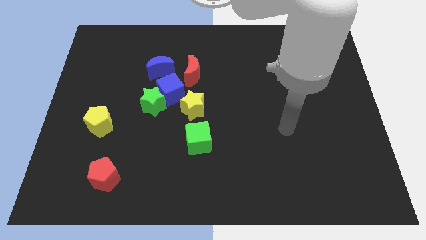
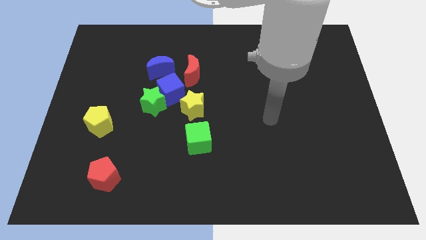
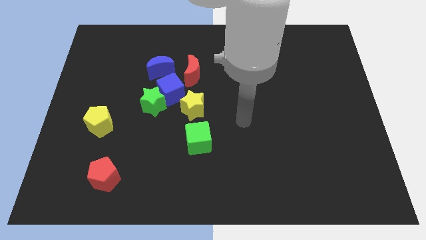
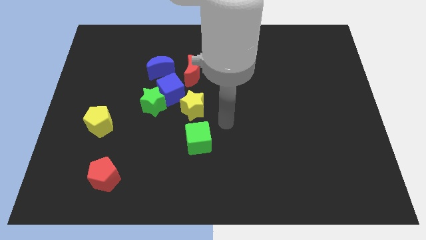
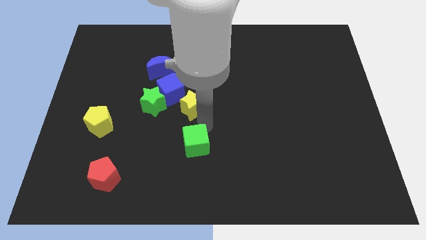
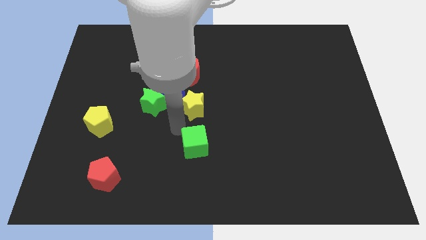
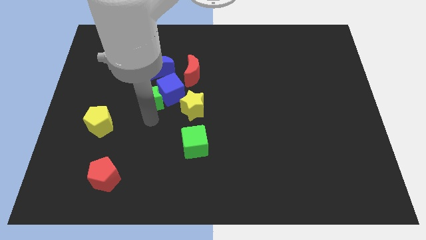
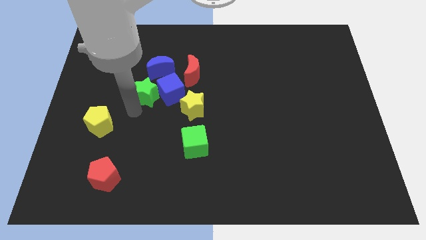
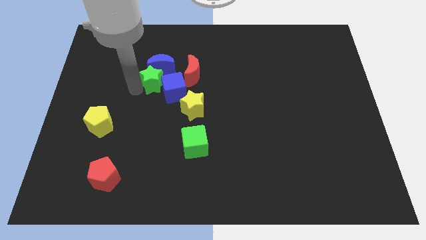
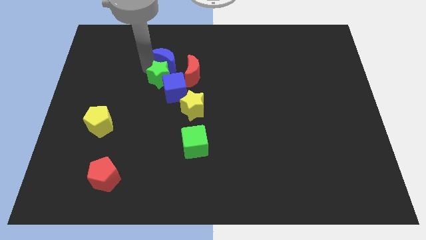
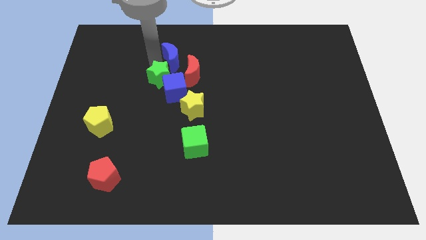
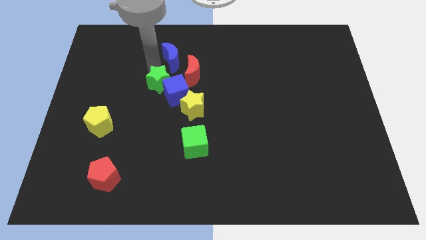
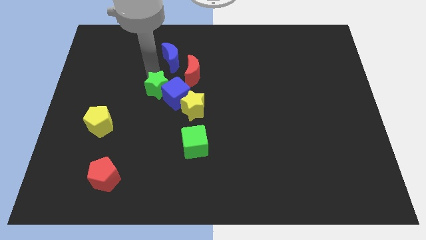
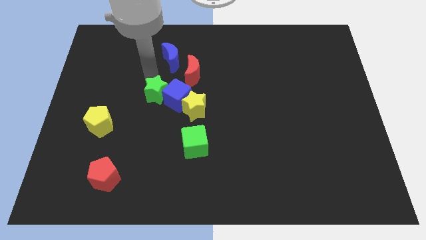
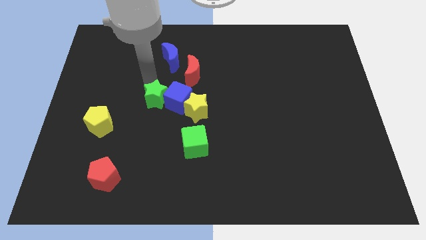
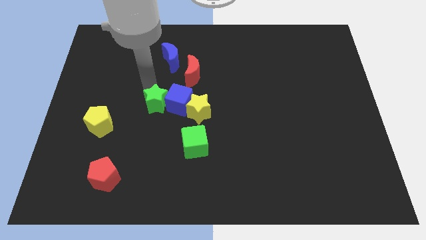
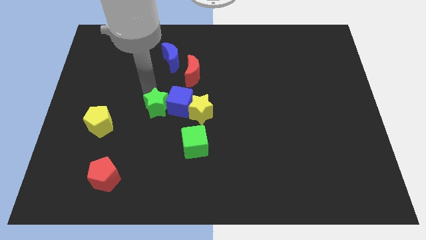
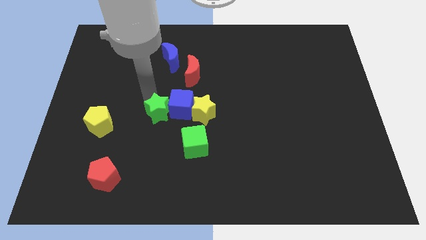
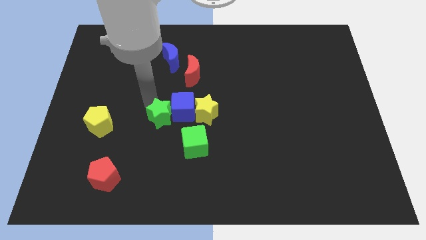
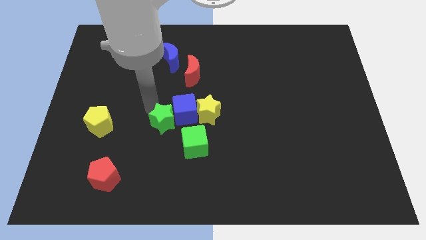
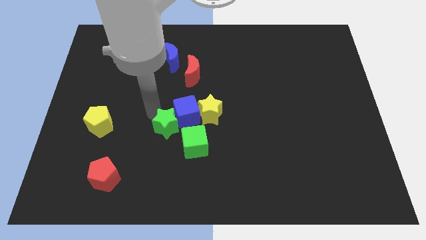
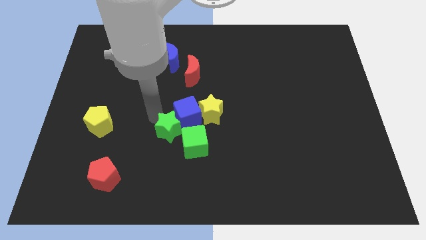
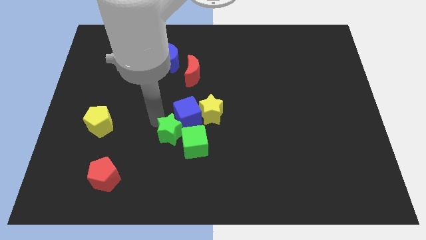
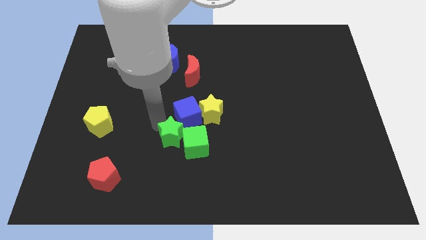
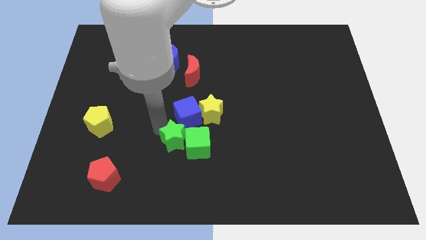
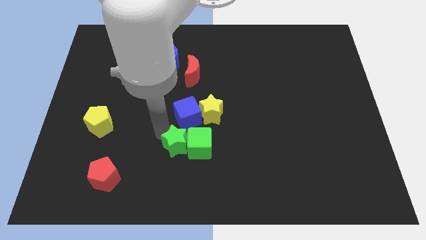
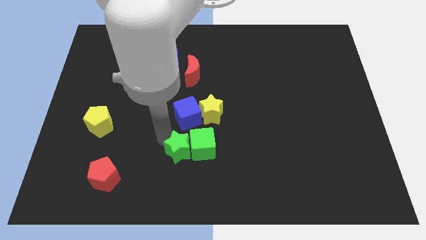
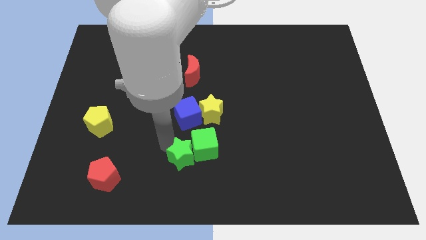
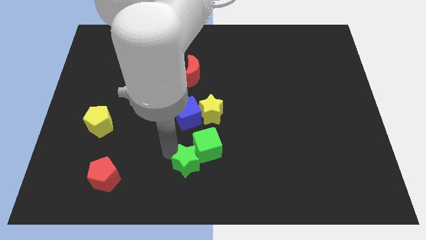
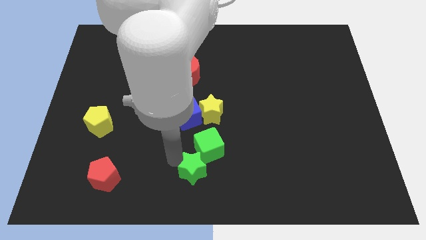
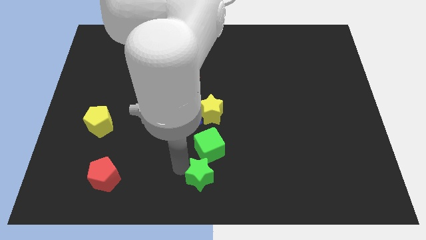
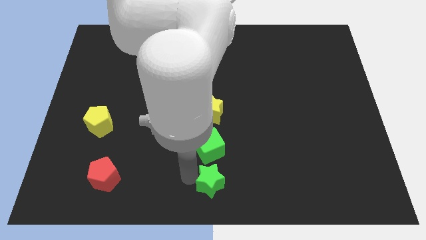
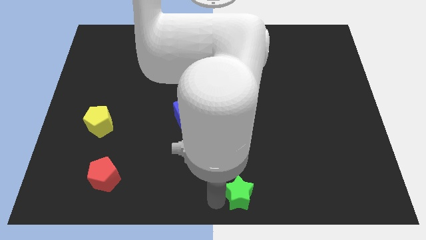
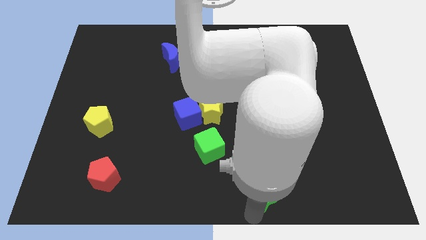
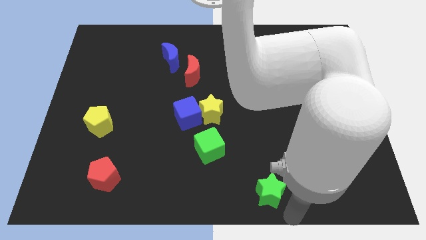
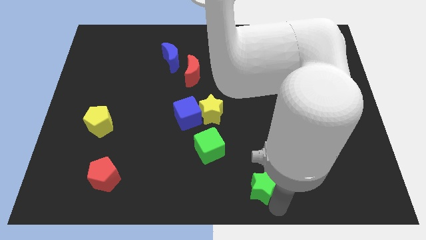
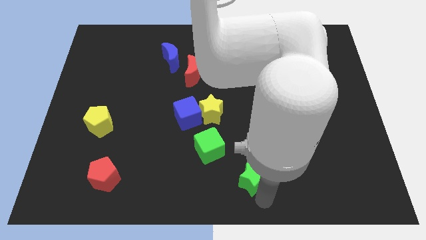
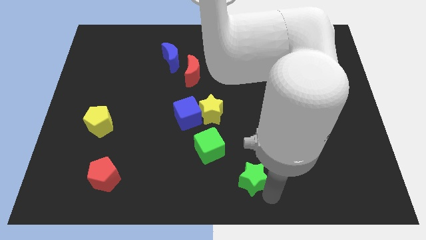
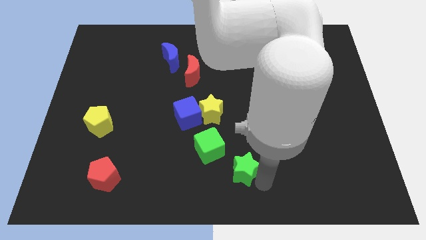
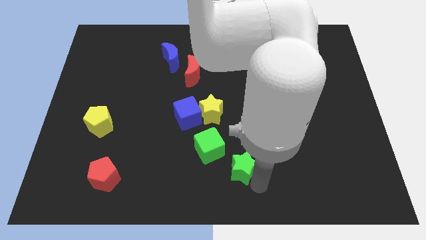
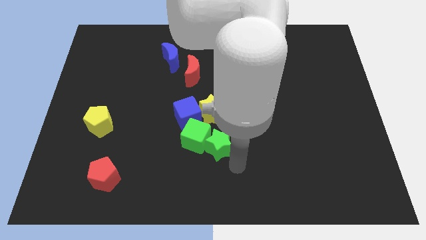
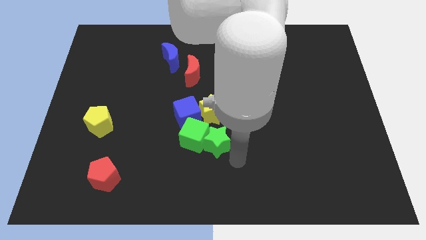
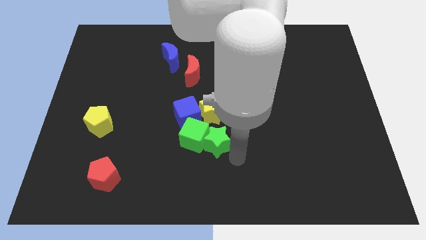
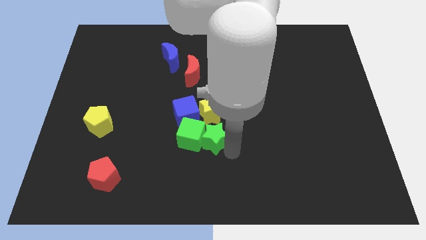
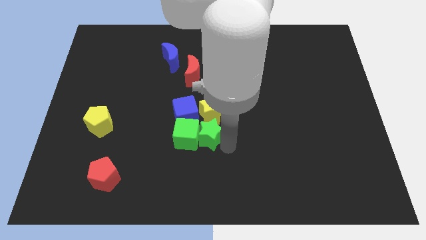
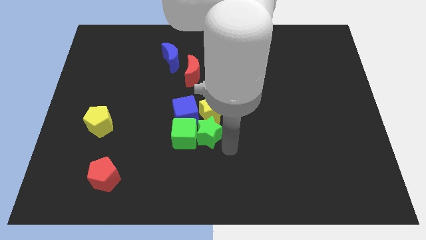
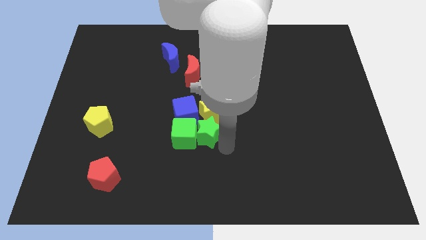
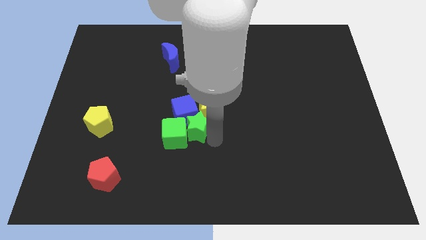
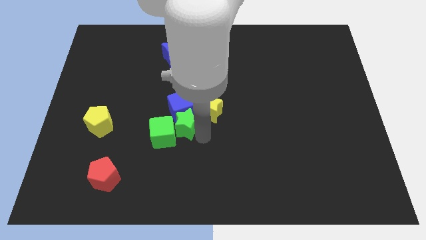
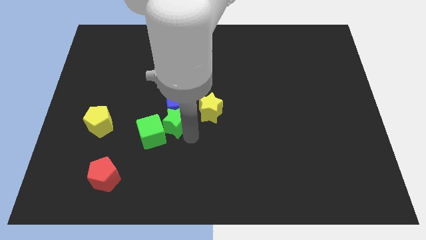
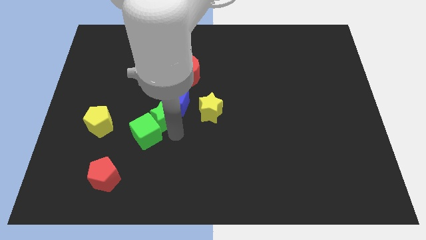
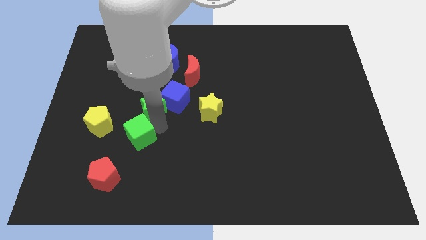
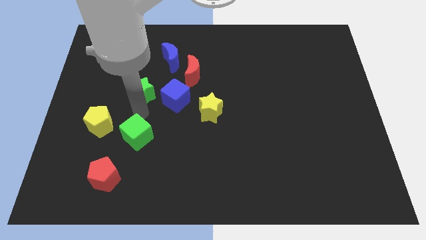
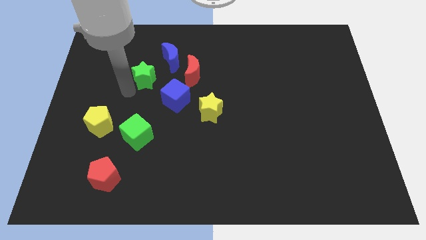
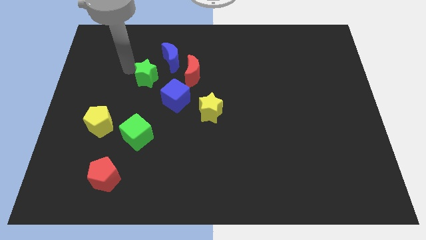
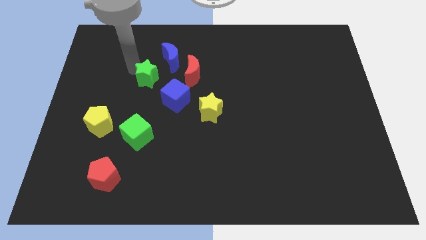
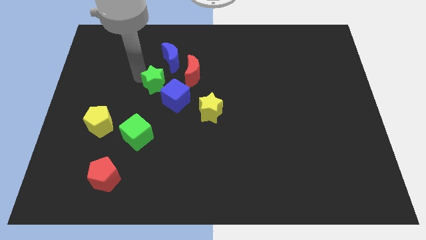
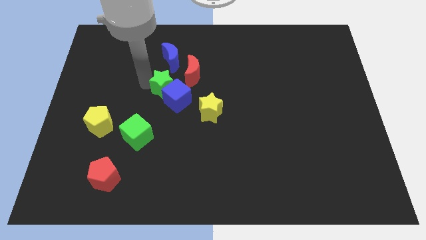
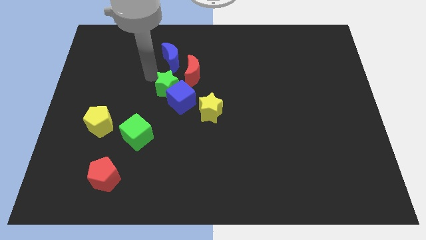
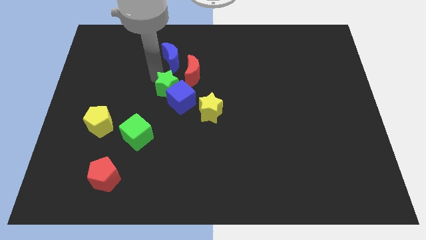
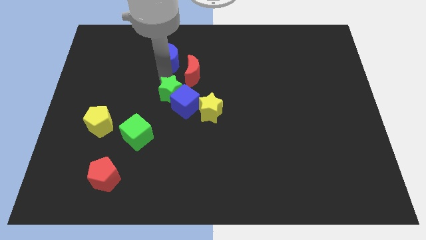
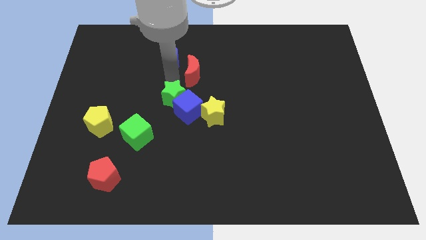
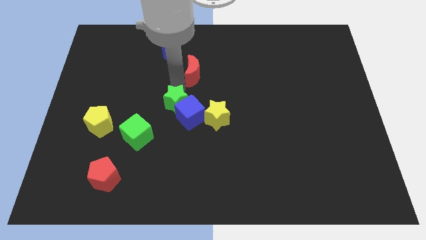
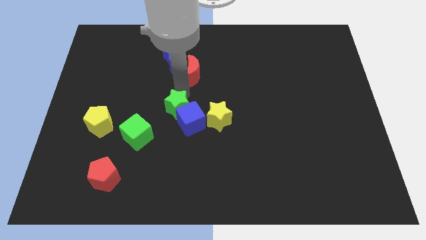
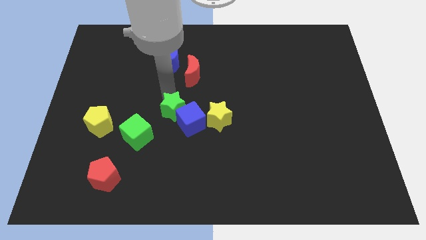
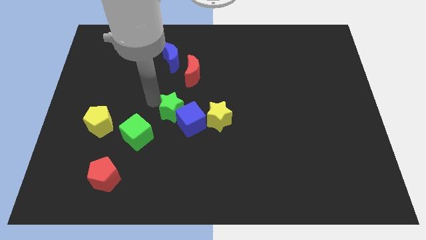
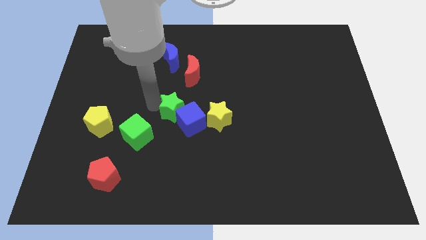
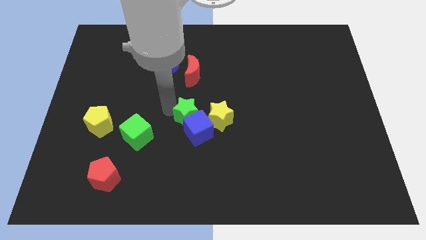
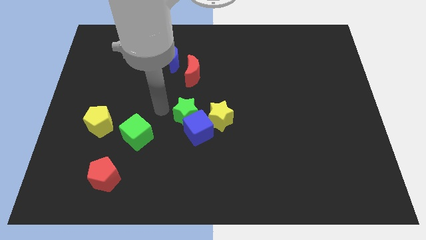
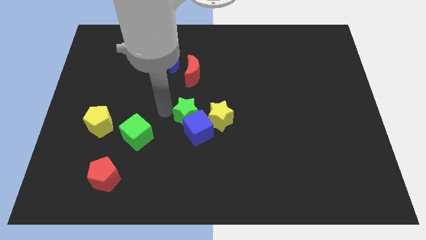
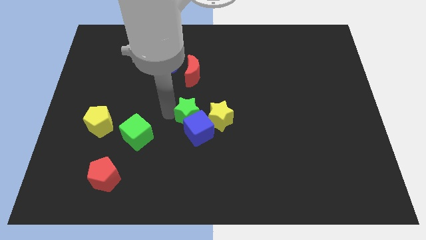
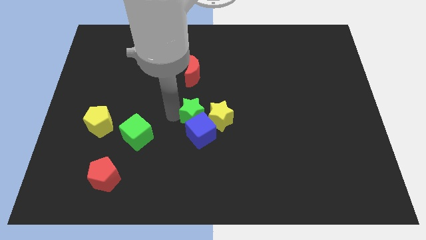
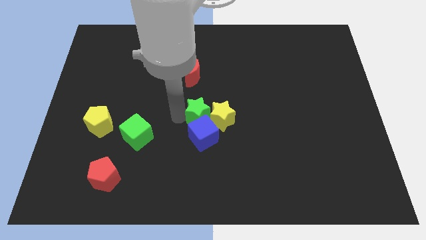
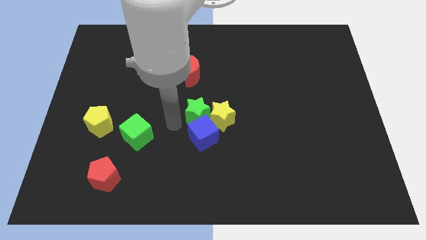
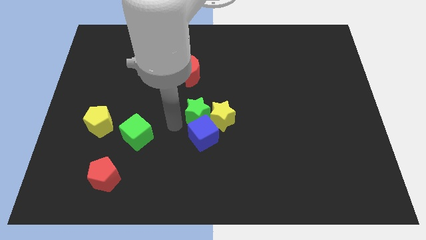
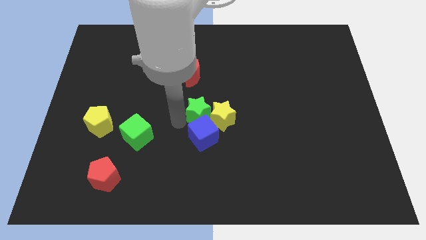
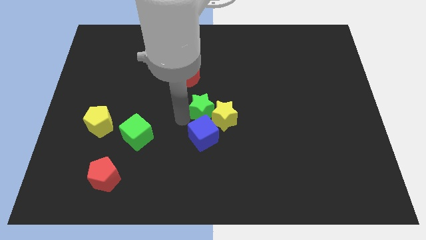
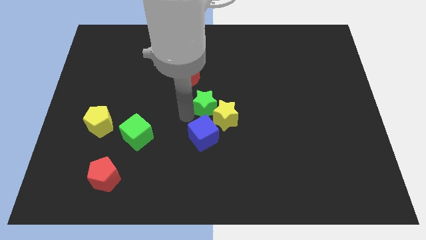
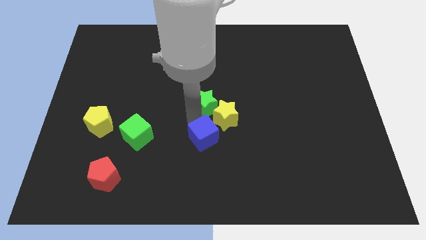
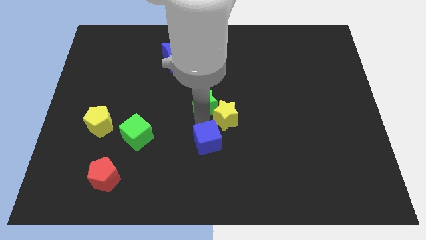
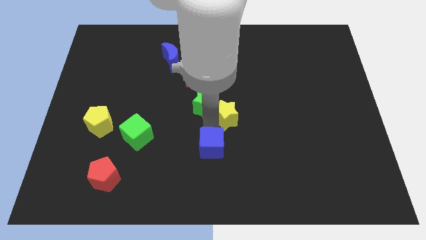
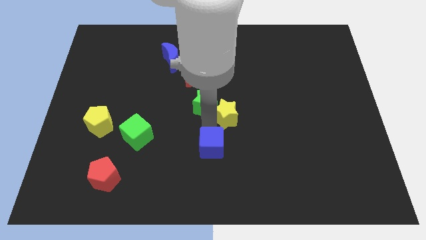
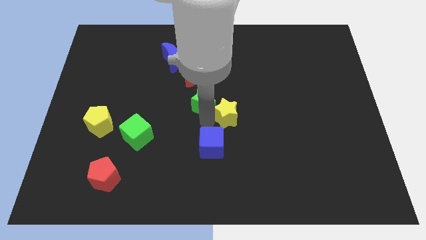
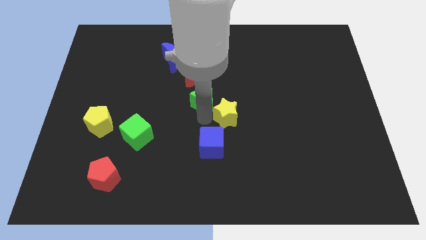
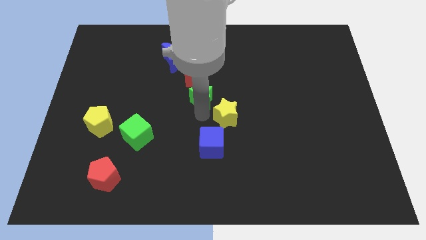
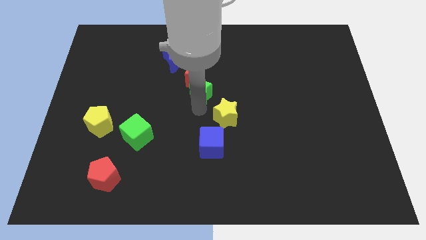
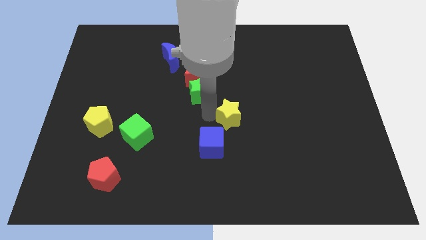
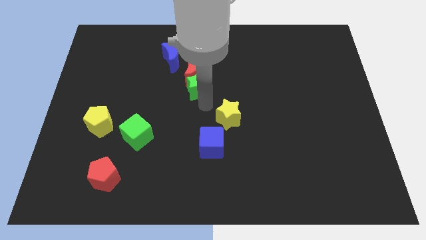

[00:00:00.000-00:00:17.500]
put the green star towards the red moon
